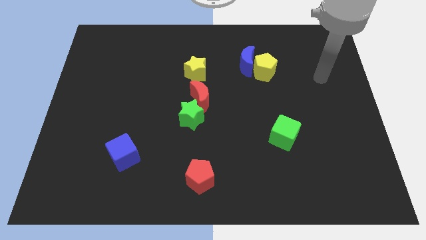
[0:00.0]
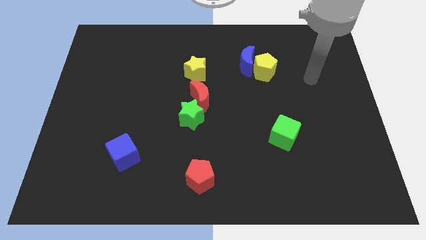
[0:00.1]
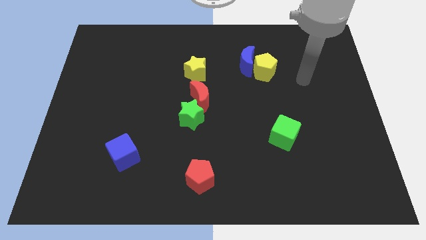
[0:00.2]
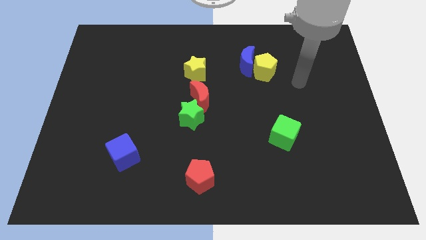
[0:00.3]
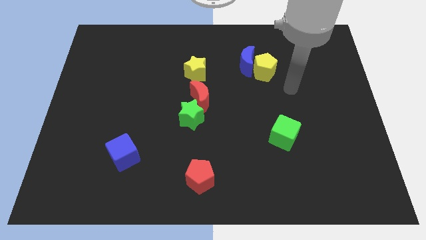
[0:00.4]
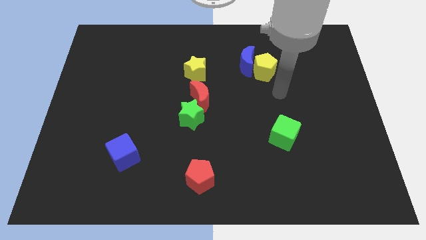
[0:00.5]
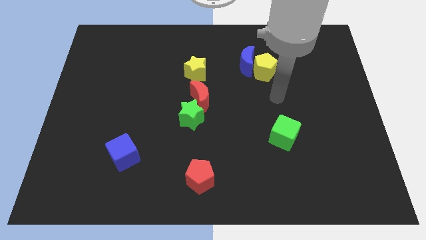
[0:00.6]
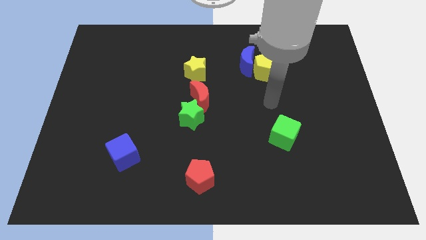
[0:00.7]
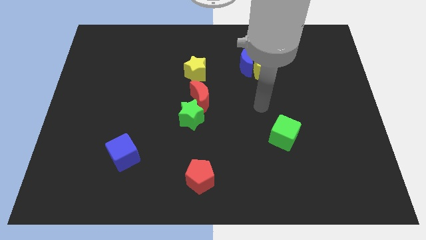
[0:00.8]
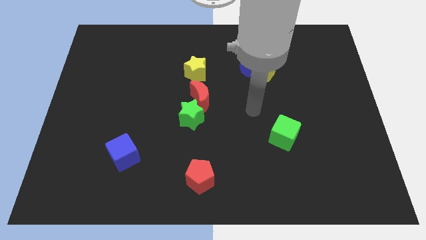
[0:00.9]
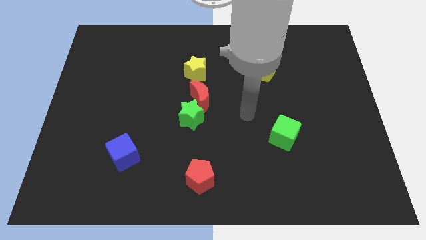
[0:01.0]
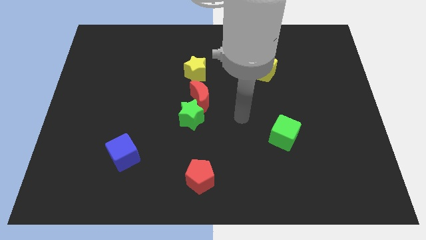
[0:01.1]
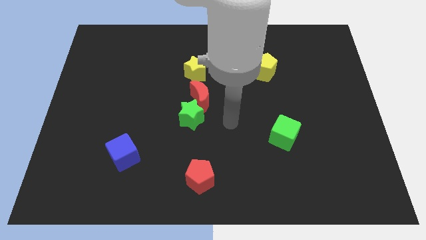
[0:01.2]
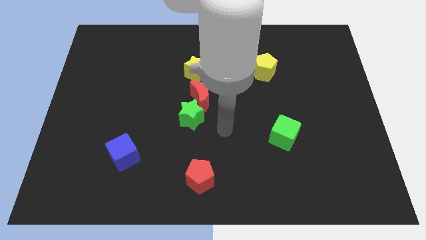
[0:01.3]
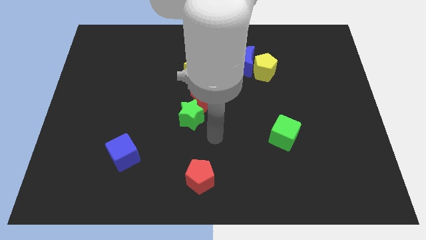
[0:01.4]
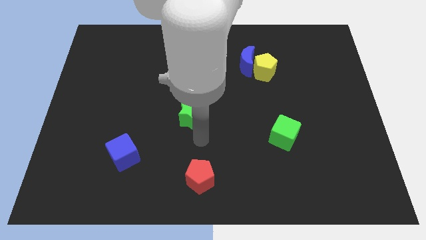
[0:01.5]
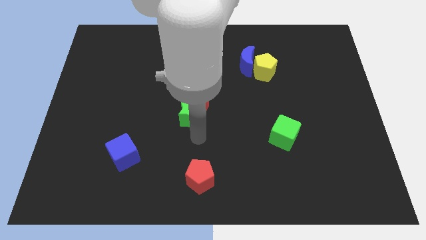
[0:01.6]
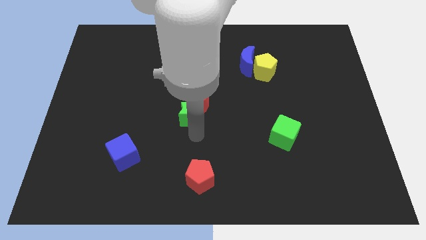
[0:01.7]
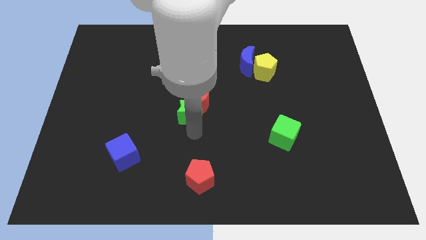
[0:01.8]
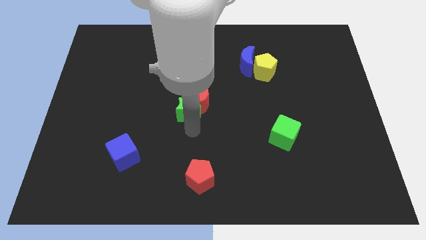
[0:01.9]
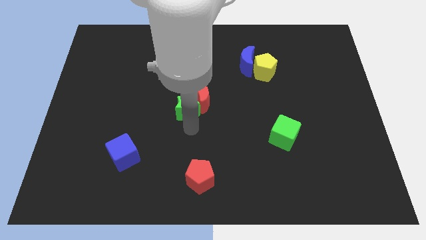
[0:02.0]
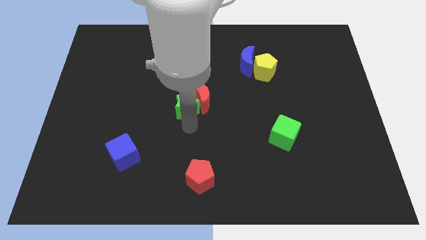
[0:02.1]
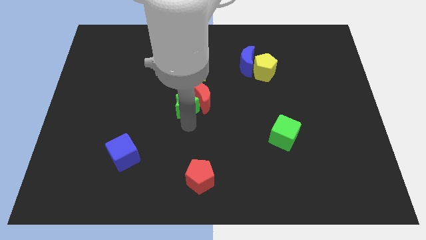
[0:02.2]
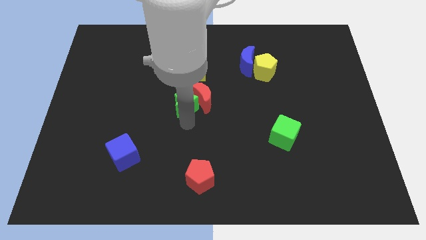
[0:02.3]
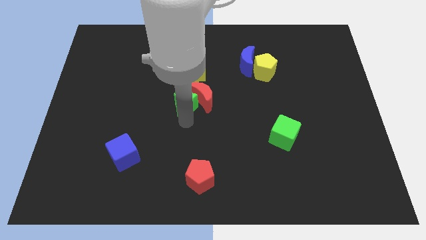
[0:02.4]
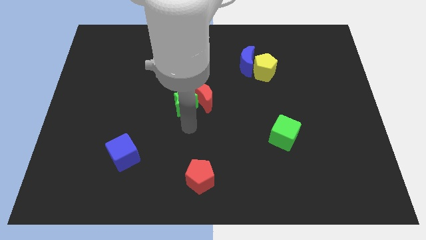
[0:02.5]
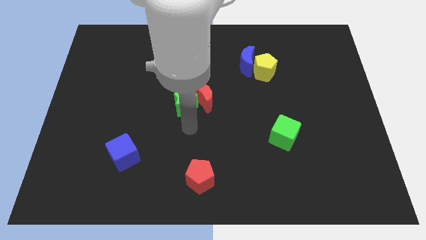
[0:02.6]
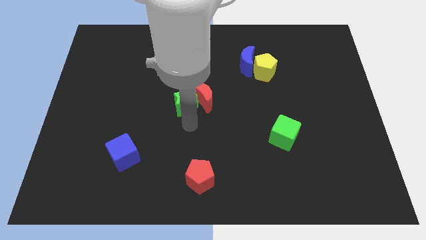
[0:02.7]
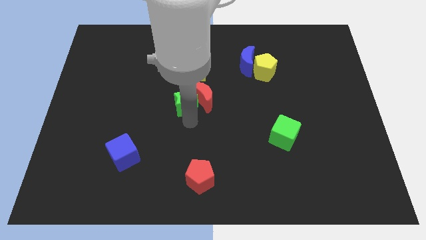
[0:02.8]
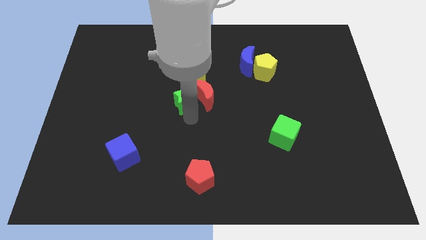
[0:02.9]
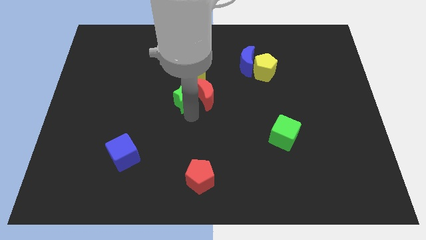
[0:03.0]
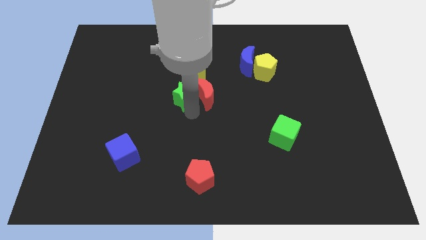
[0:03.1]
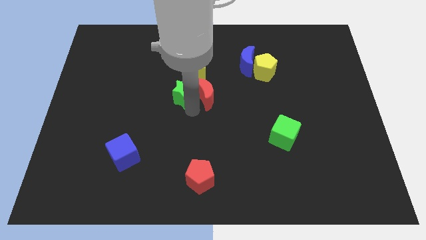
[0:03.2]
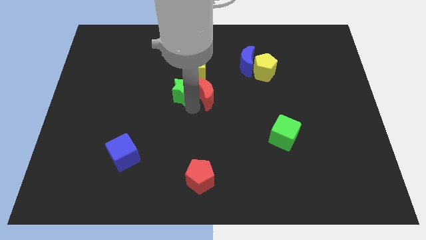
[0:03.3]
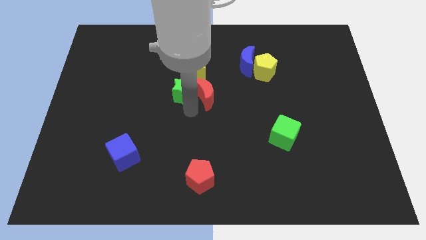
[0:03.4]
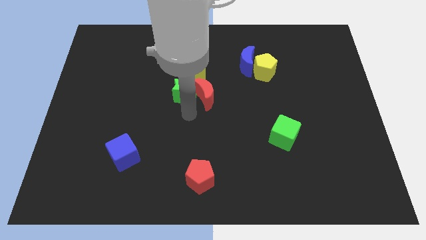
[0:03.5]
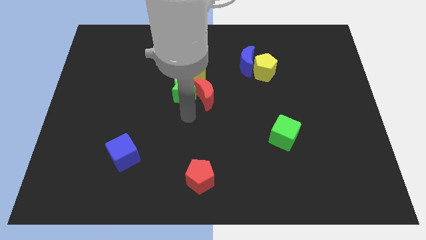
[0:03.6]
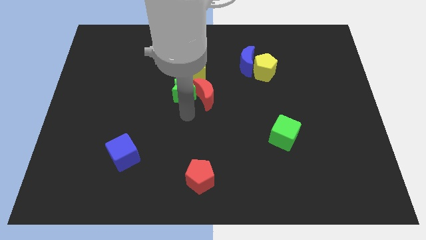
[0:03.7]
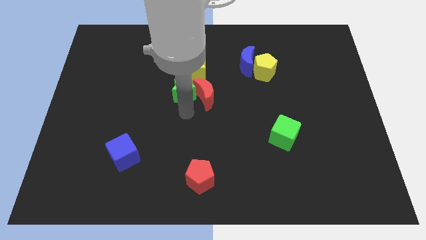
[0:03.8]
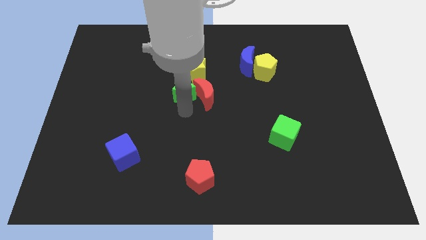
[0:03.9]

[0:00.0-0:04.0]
slightly slide the green star upwards

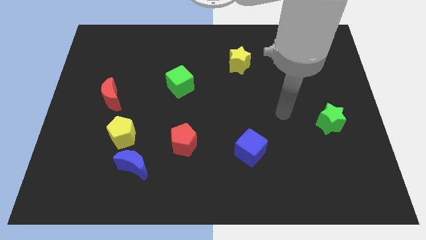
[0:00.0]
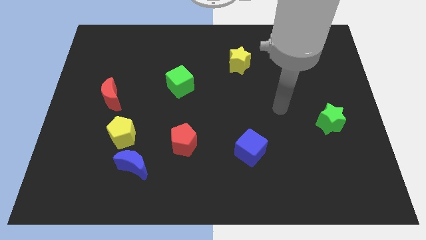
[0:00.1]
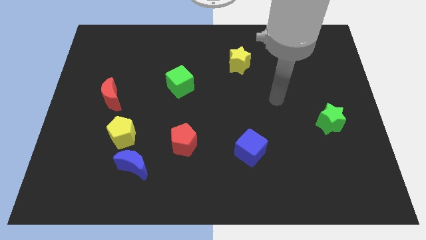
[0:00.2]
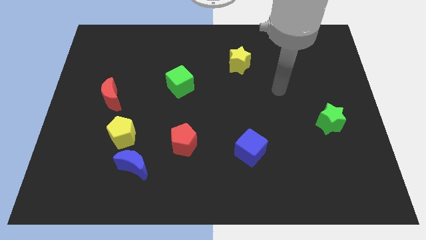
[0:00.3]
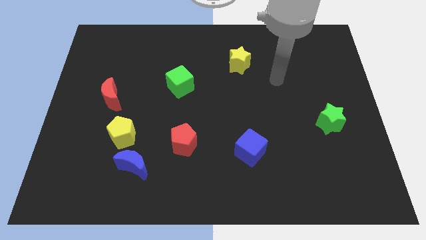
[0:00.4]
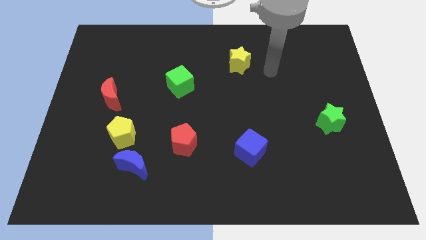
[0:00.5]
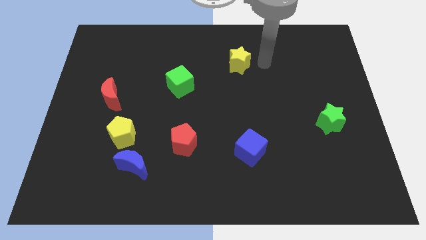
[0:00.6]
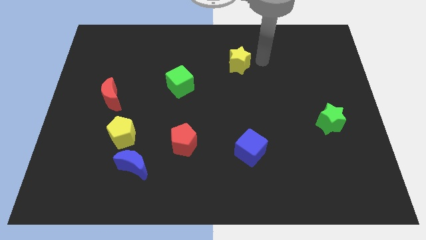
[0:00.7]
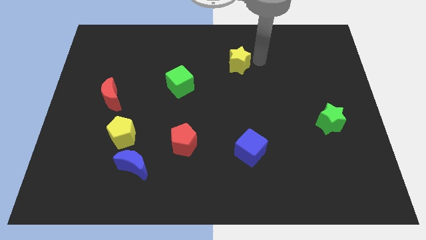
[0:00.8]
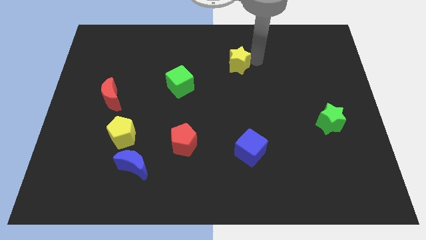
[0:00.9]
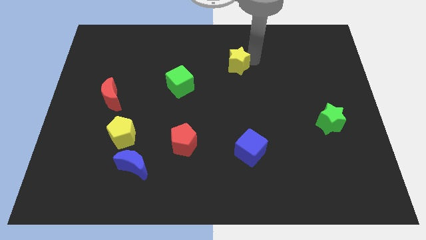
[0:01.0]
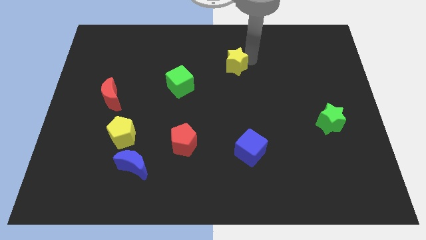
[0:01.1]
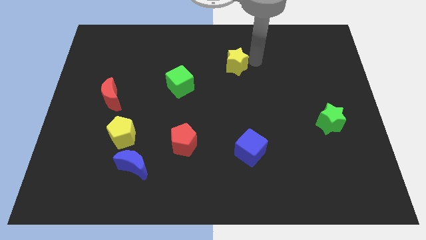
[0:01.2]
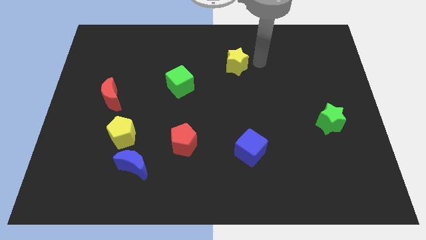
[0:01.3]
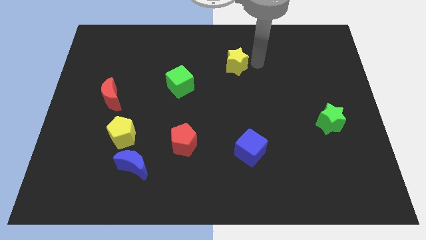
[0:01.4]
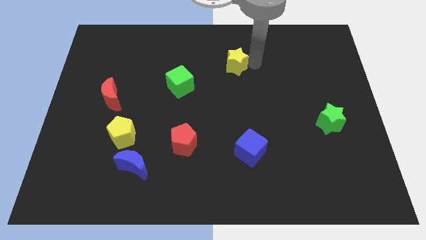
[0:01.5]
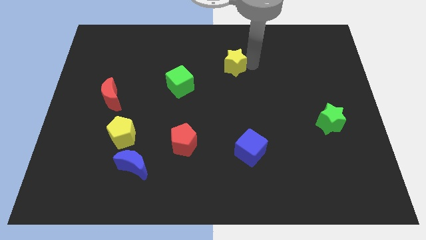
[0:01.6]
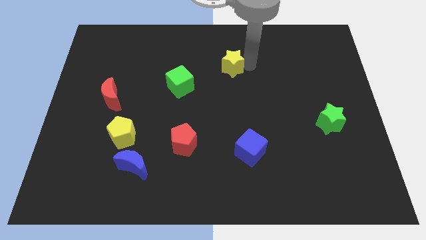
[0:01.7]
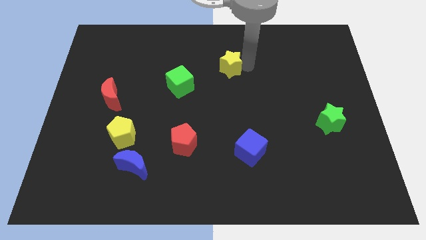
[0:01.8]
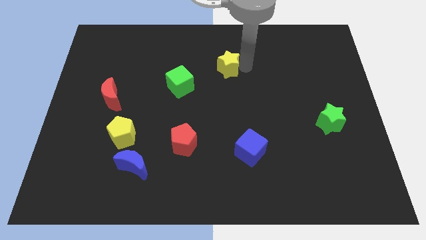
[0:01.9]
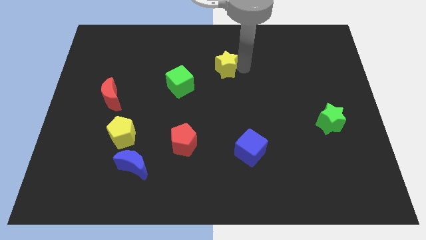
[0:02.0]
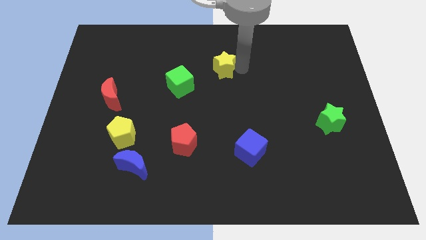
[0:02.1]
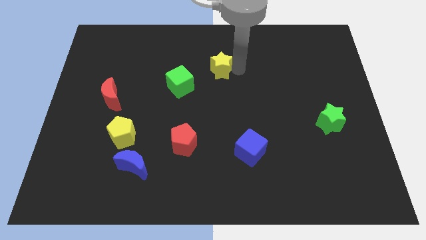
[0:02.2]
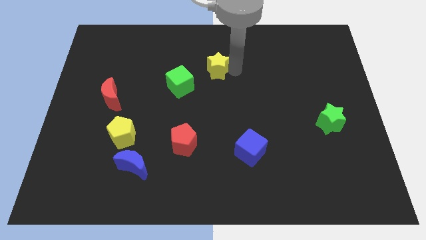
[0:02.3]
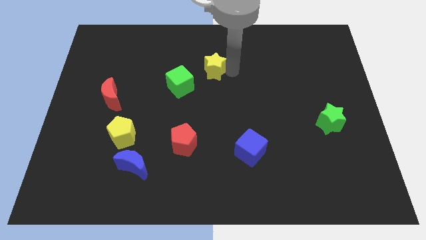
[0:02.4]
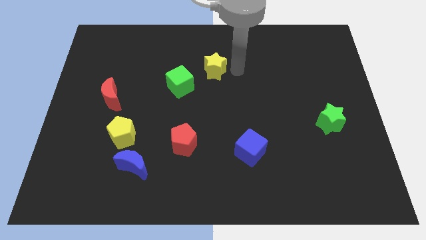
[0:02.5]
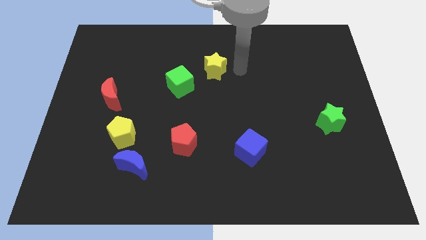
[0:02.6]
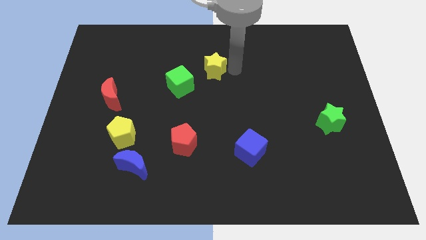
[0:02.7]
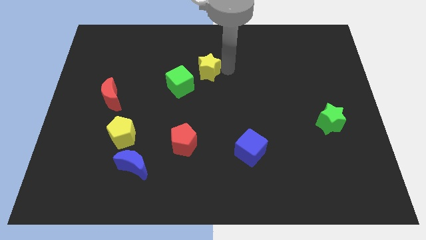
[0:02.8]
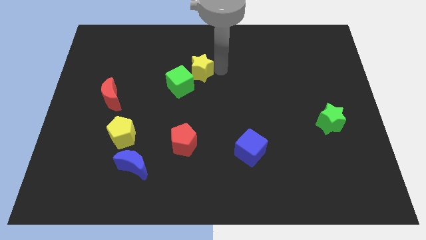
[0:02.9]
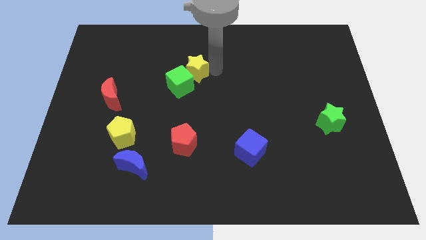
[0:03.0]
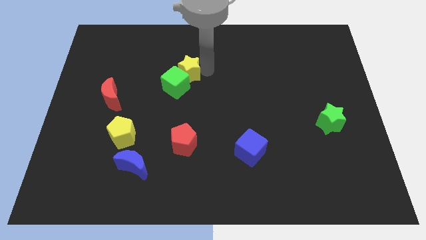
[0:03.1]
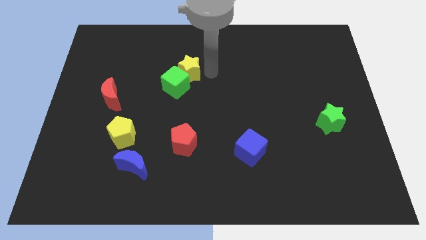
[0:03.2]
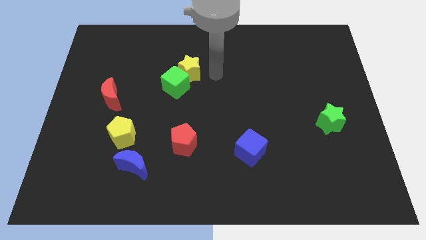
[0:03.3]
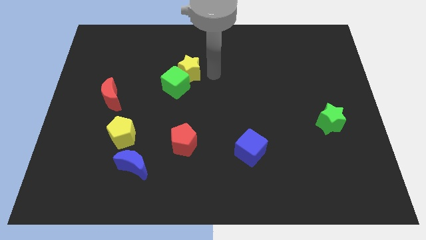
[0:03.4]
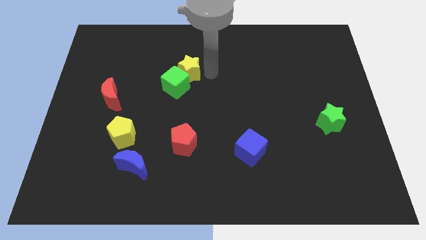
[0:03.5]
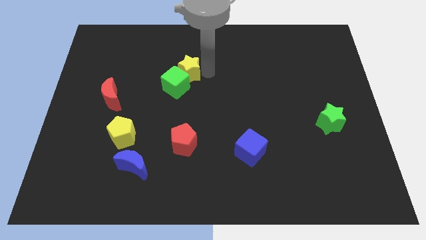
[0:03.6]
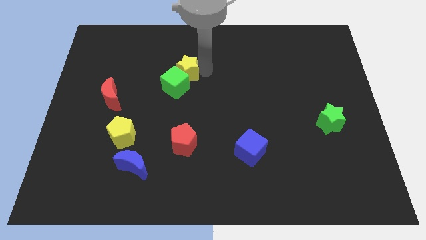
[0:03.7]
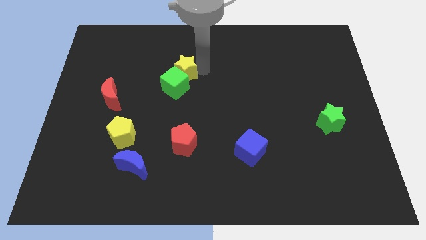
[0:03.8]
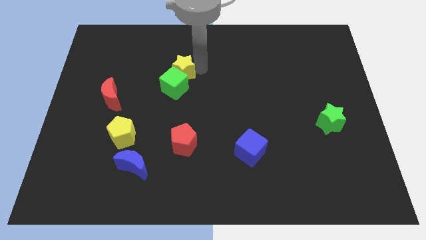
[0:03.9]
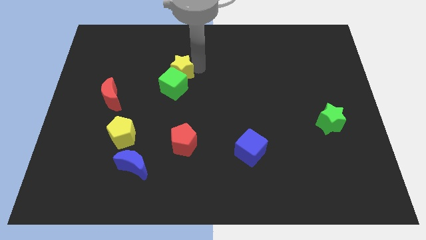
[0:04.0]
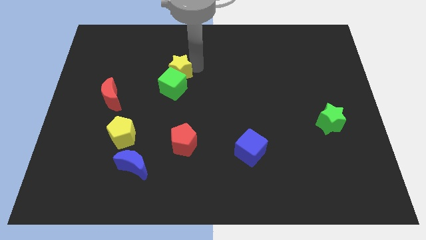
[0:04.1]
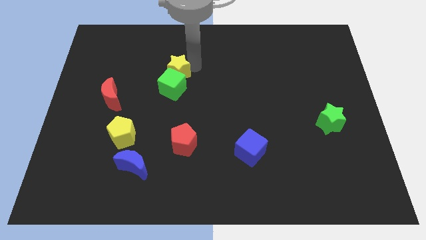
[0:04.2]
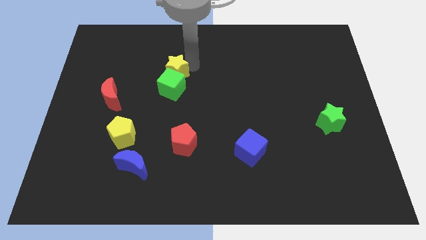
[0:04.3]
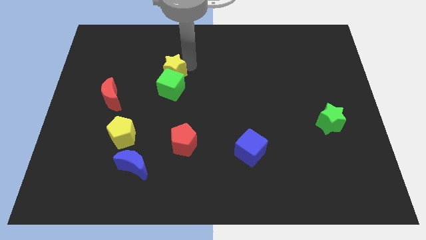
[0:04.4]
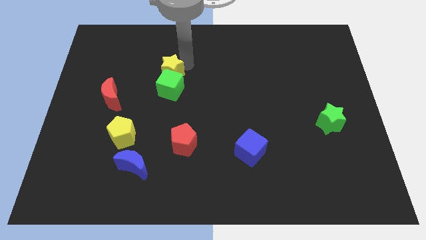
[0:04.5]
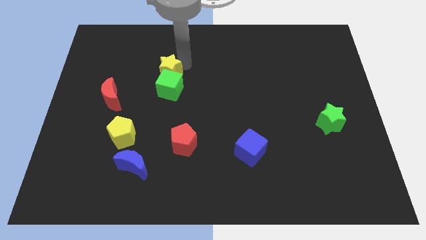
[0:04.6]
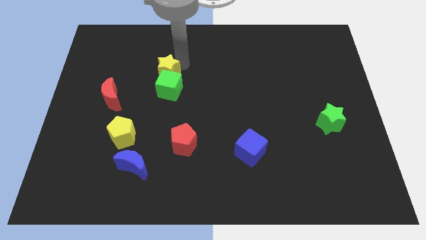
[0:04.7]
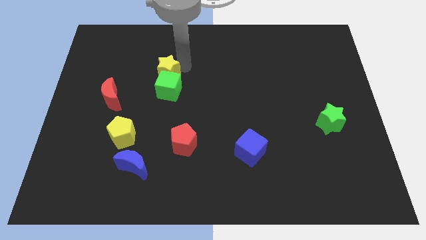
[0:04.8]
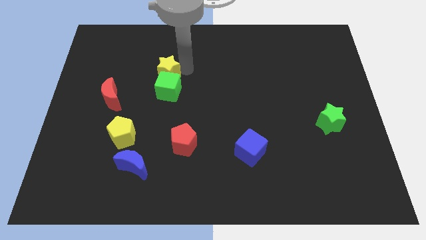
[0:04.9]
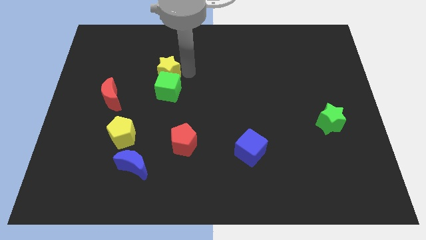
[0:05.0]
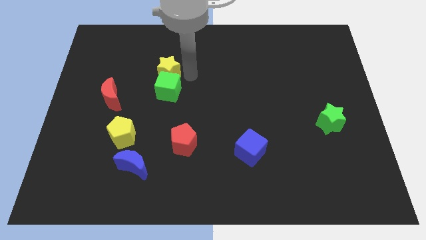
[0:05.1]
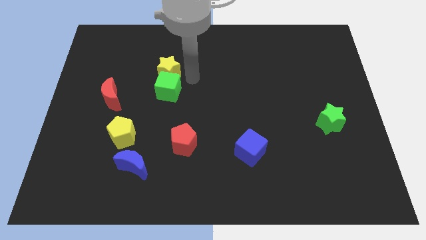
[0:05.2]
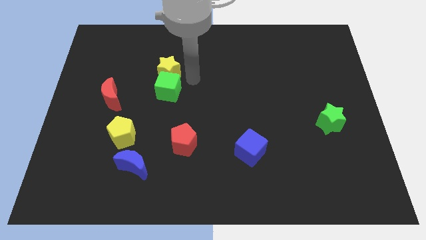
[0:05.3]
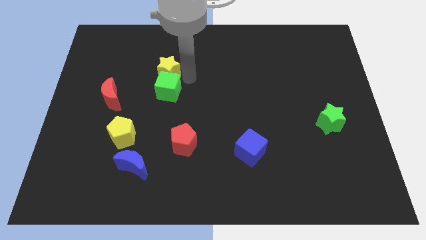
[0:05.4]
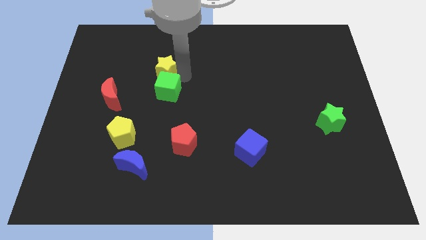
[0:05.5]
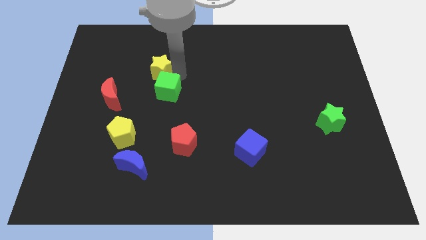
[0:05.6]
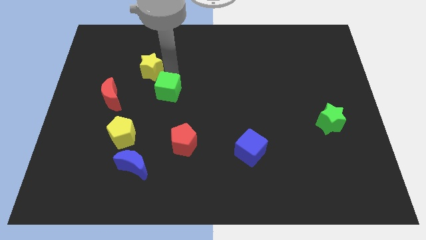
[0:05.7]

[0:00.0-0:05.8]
move the yellow star to the left
